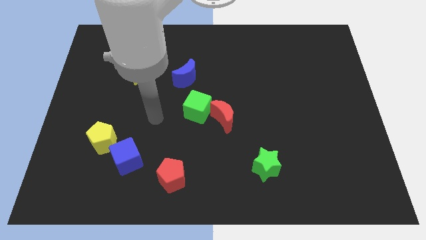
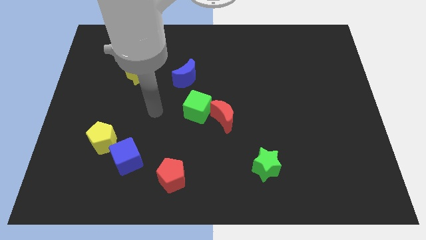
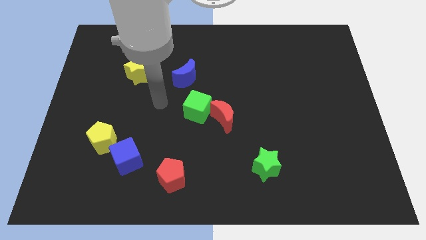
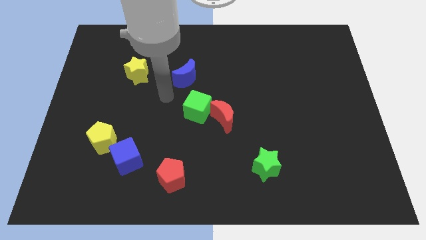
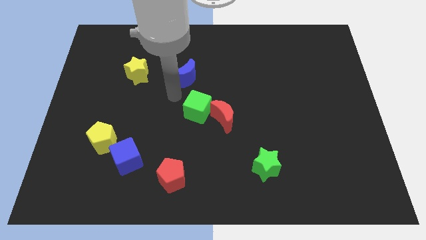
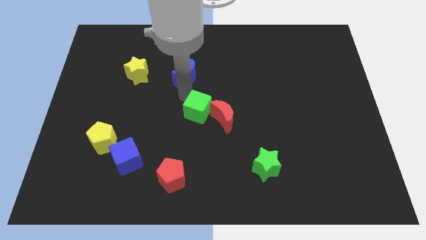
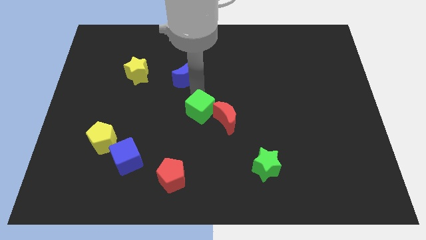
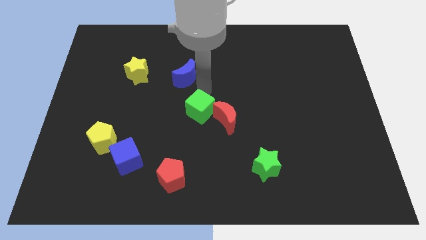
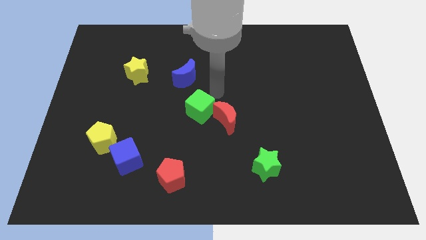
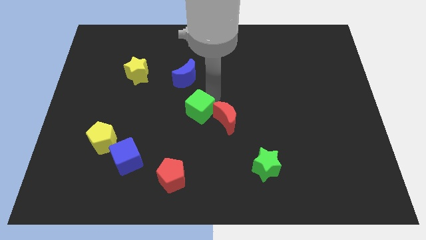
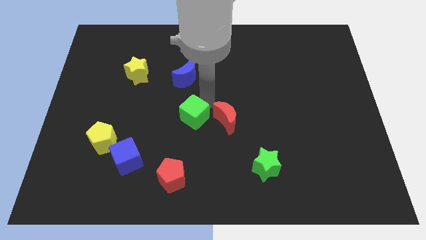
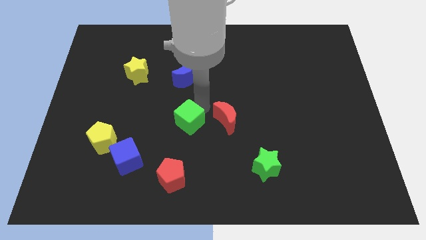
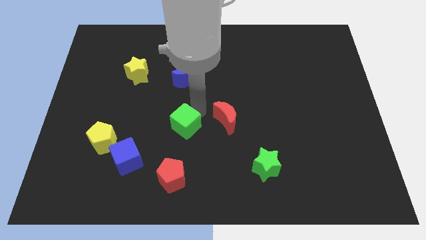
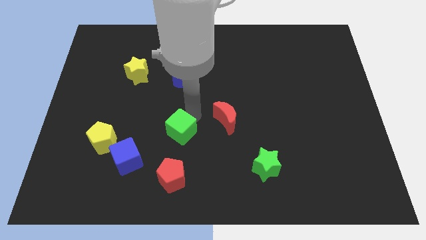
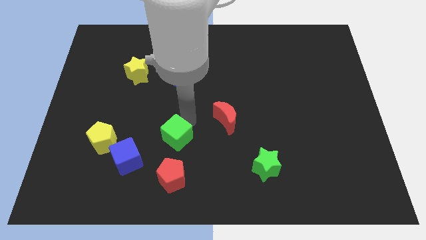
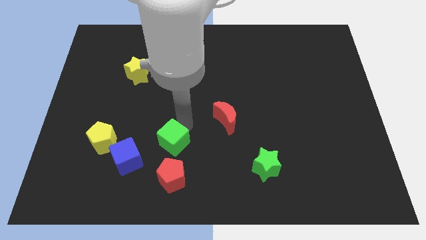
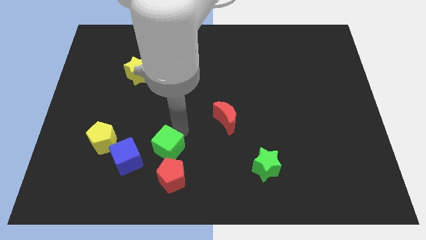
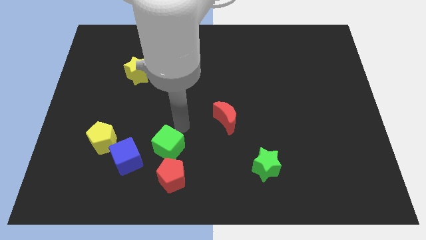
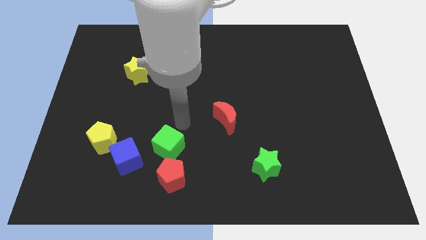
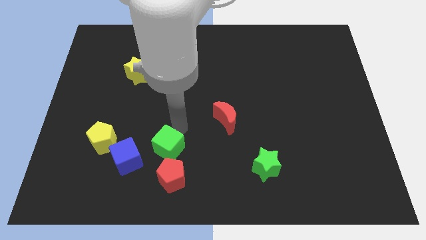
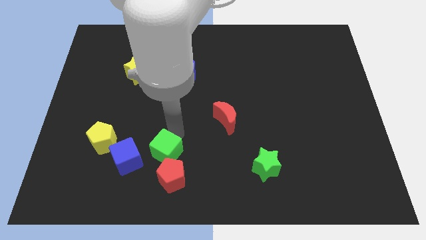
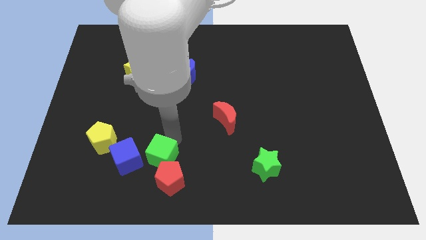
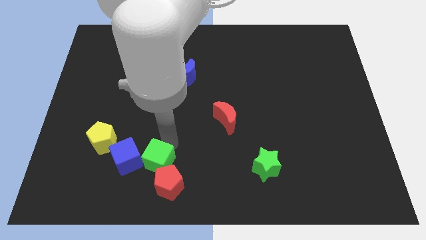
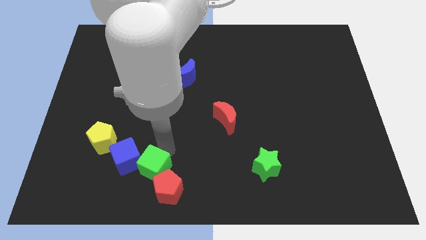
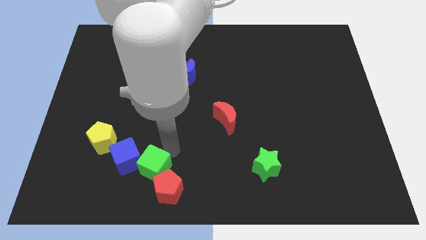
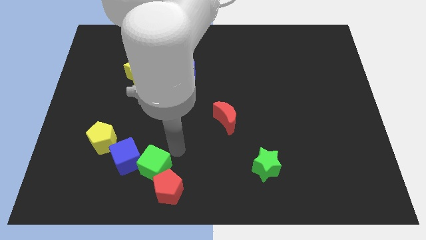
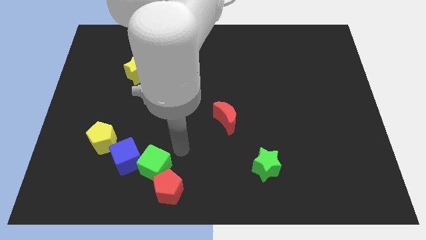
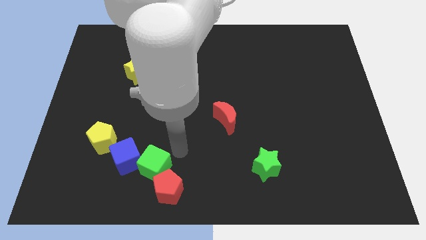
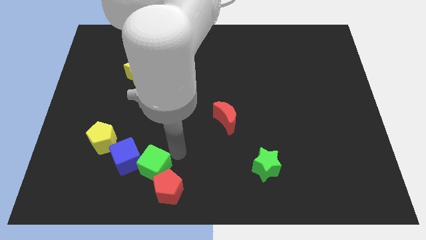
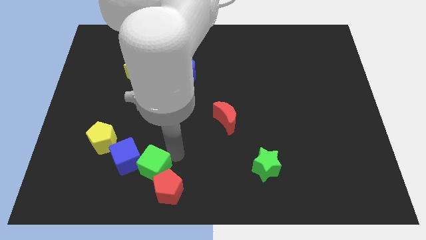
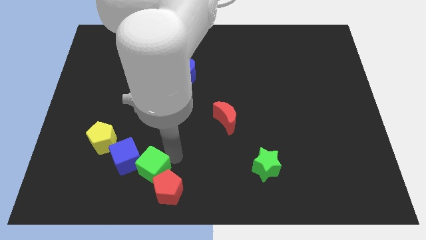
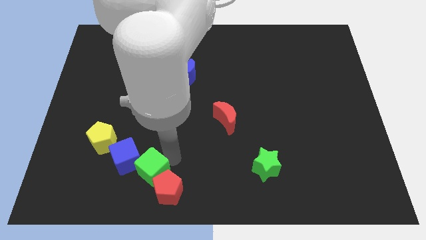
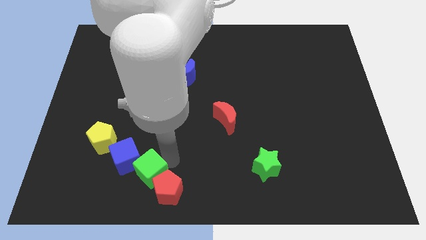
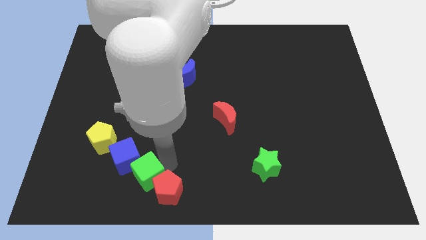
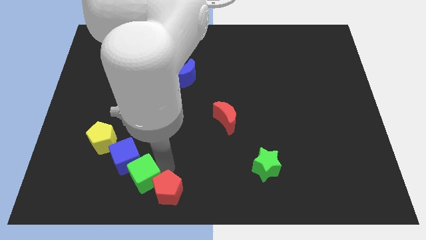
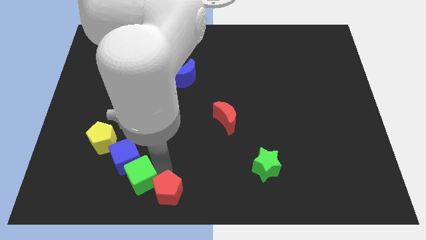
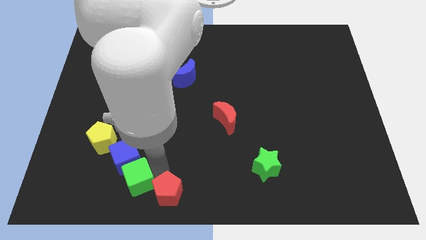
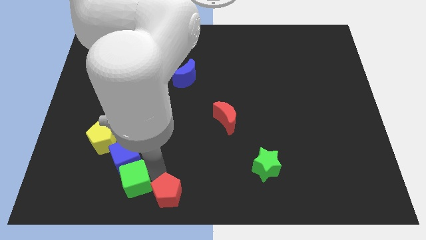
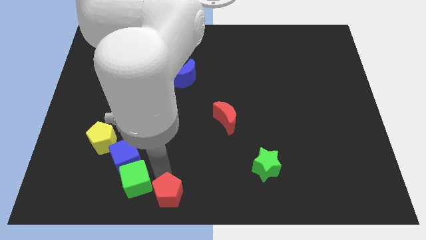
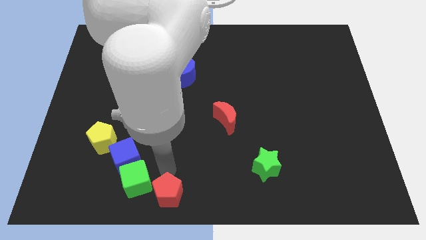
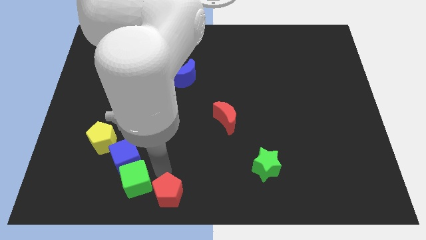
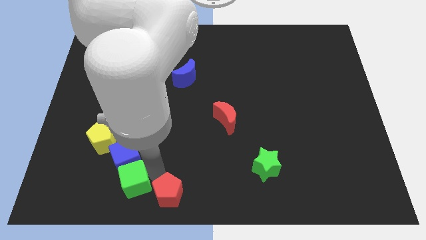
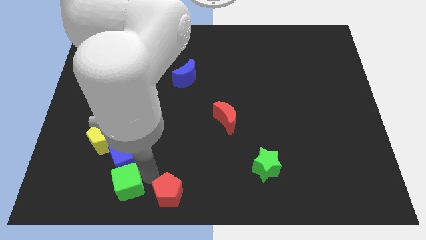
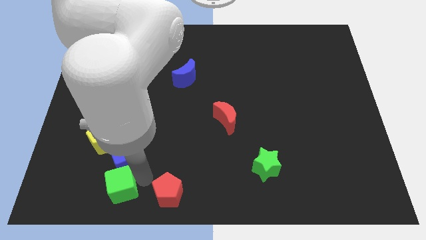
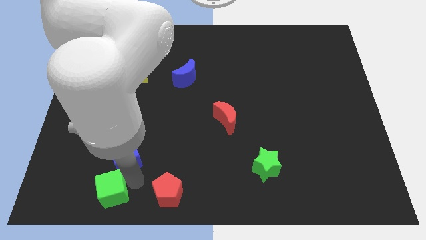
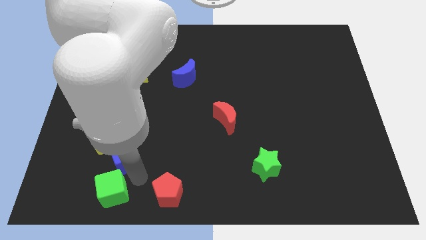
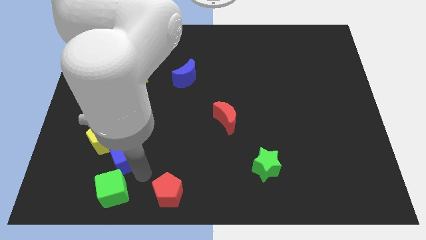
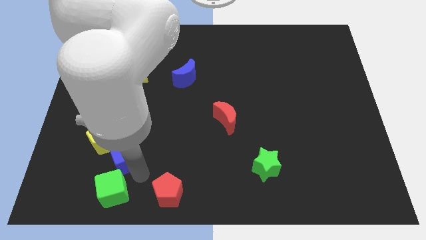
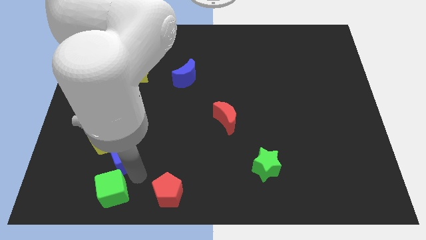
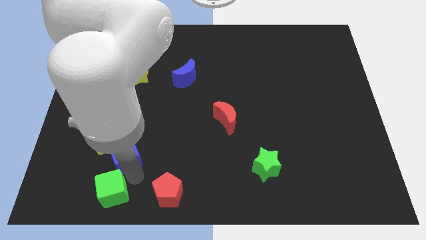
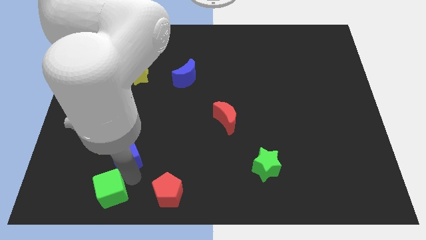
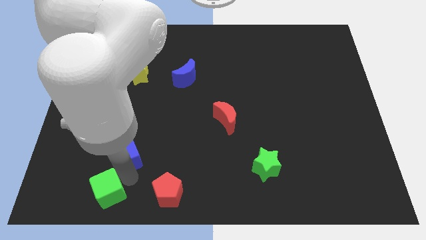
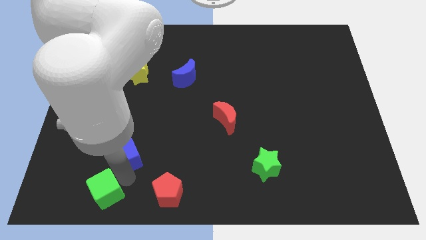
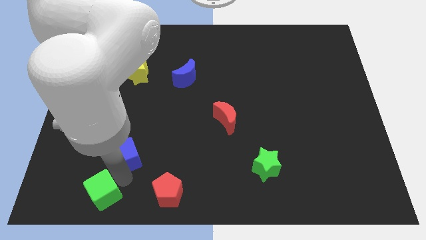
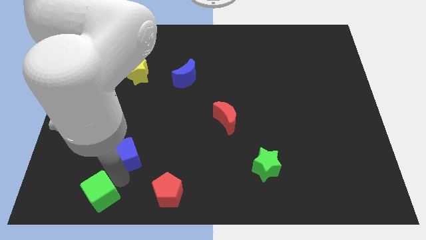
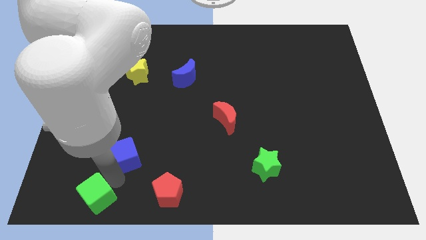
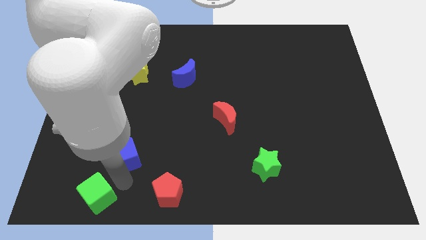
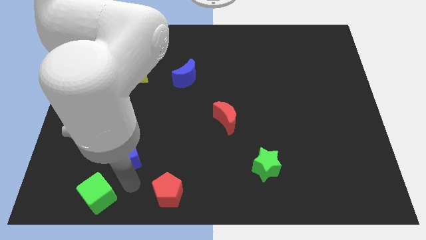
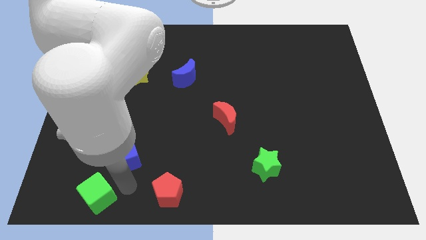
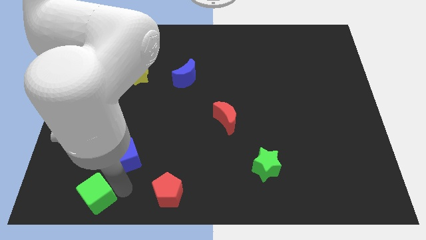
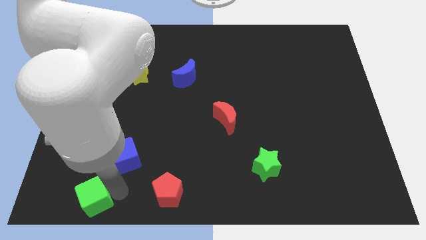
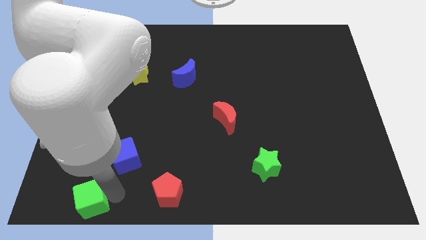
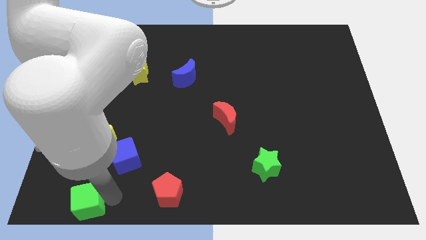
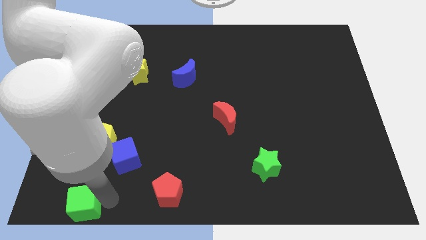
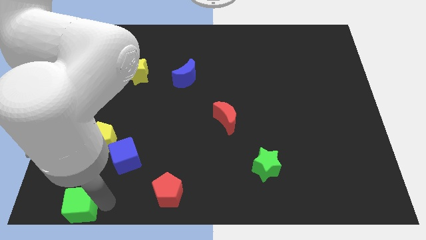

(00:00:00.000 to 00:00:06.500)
slide the green cube to the lower left corner

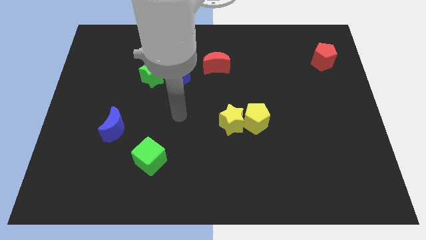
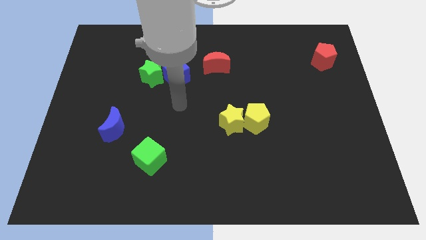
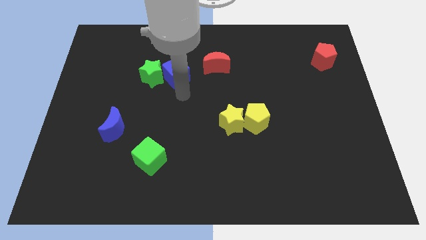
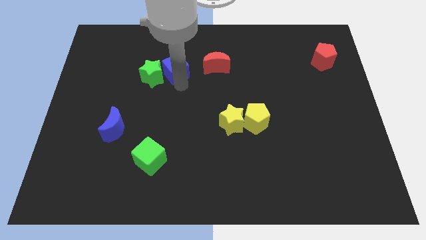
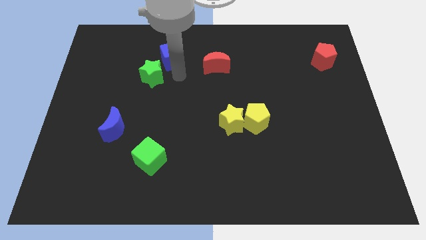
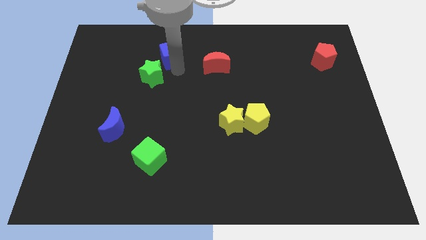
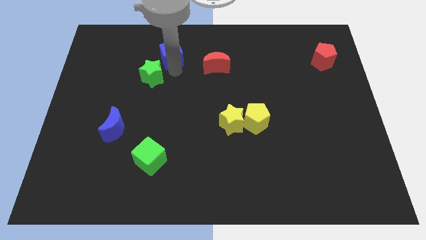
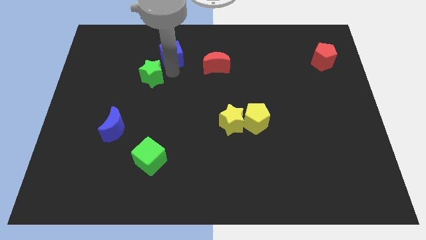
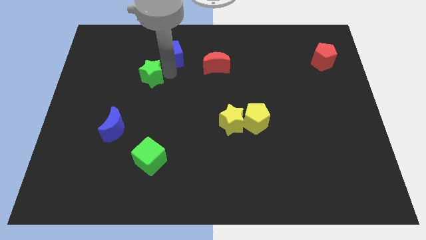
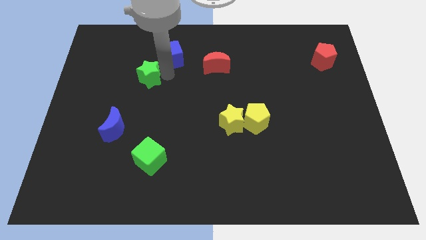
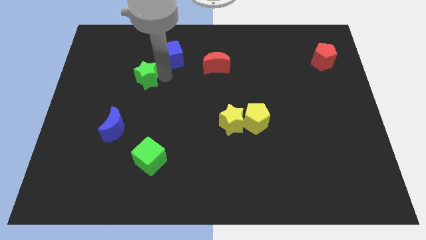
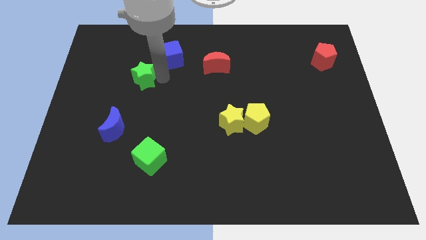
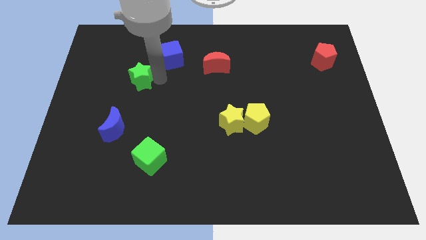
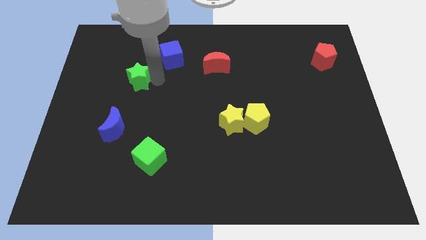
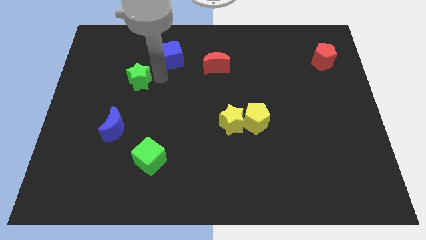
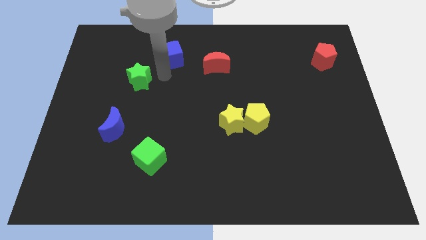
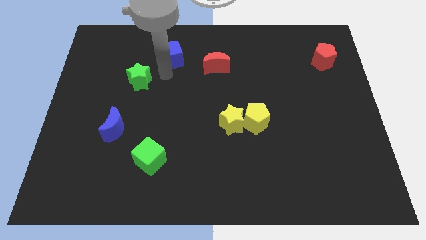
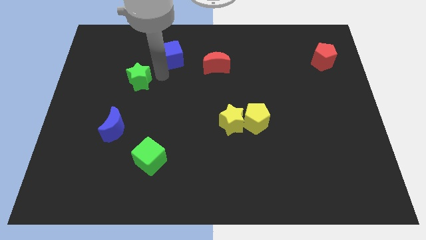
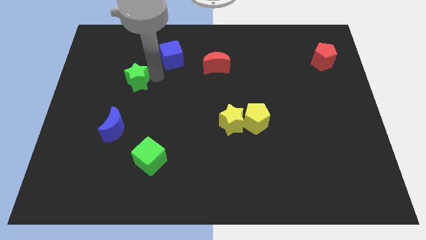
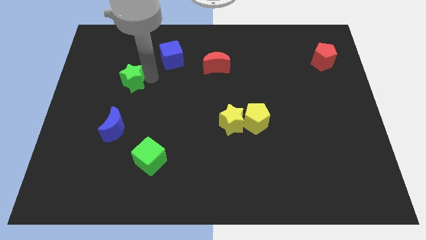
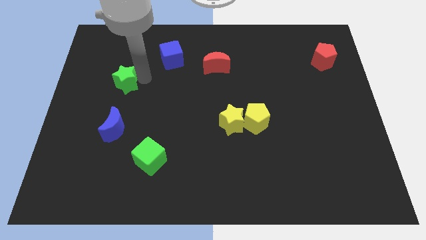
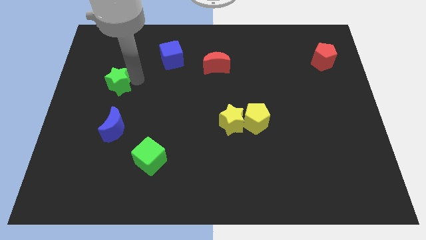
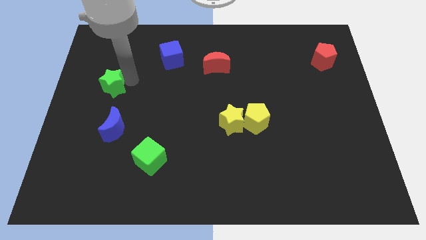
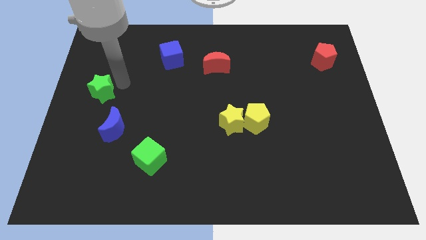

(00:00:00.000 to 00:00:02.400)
put the green star to the center left
